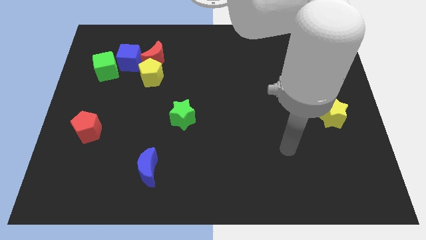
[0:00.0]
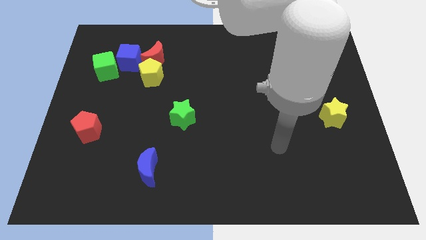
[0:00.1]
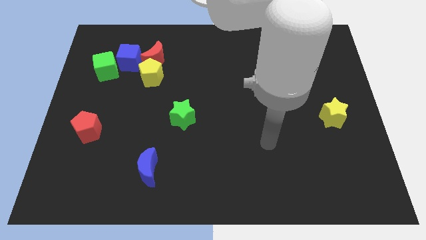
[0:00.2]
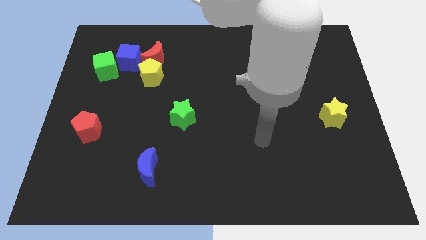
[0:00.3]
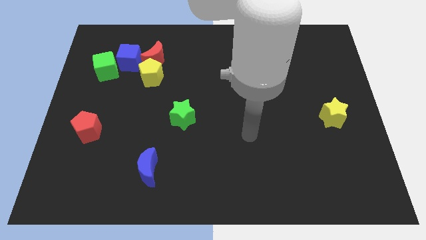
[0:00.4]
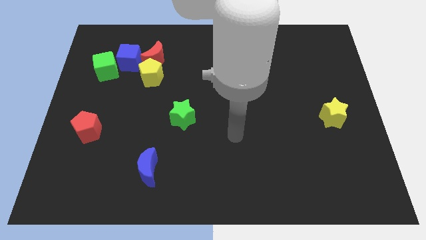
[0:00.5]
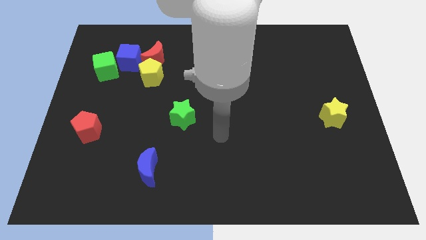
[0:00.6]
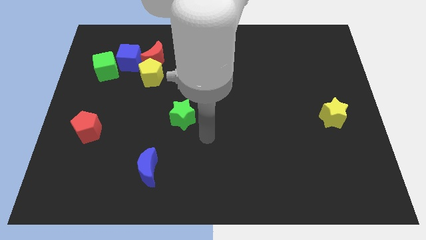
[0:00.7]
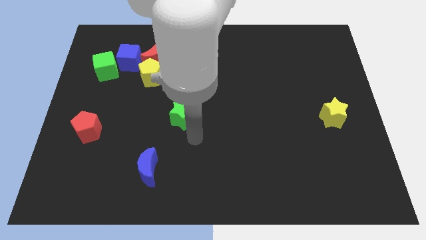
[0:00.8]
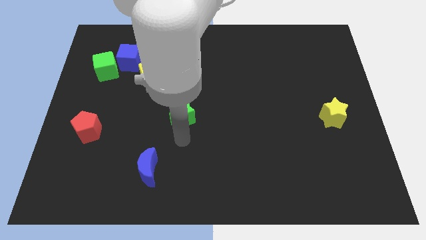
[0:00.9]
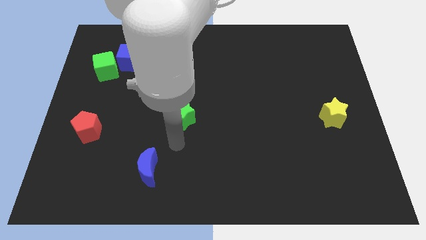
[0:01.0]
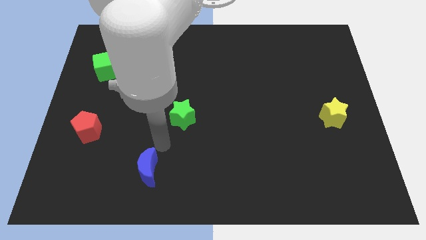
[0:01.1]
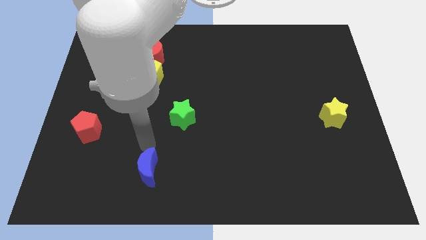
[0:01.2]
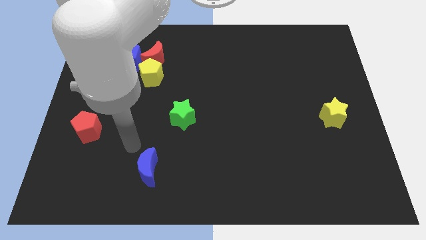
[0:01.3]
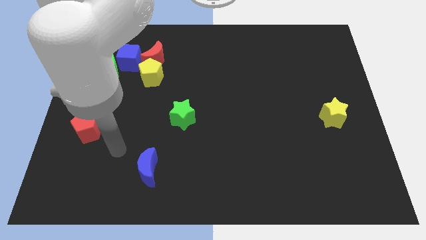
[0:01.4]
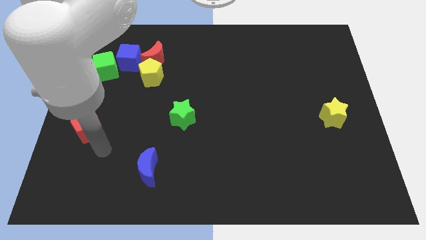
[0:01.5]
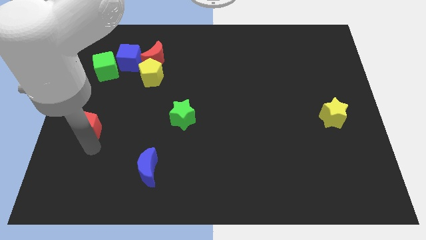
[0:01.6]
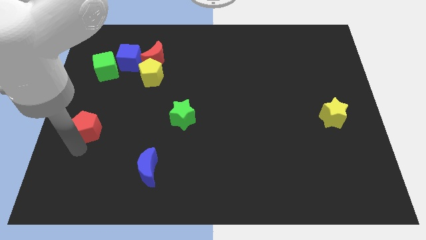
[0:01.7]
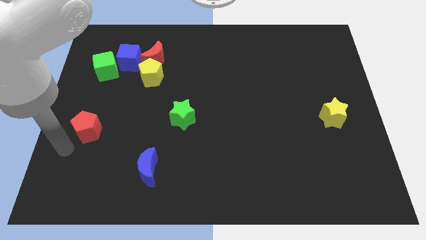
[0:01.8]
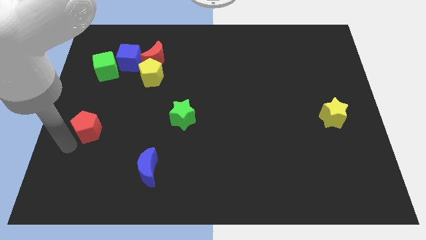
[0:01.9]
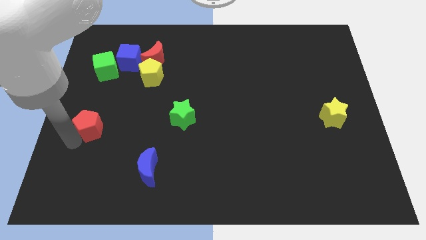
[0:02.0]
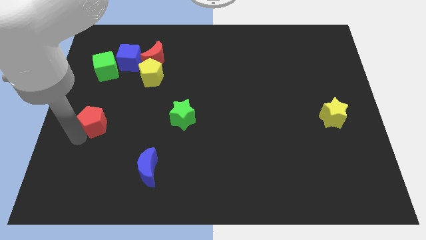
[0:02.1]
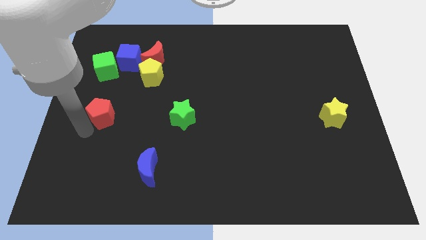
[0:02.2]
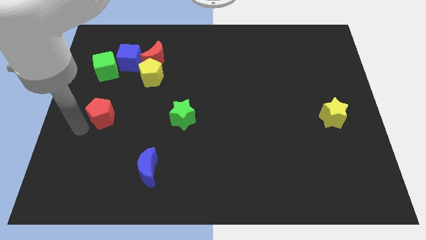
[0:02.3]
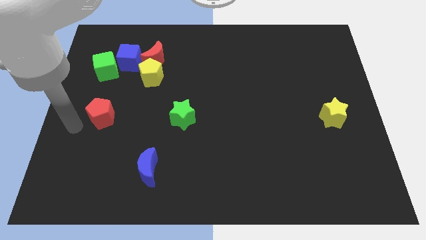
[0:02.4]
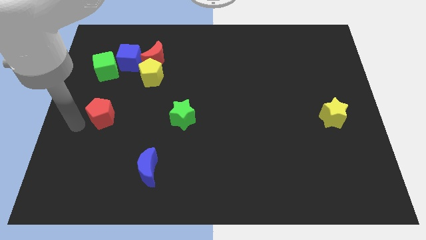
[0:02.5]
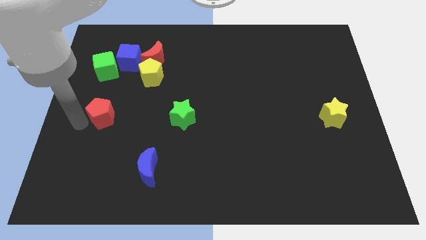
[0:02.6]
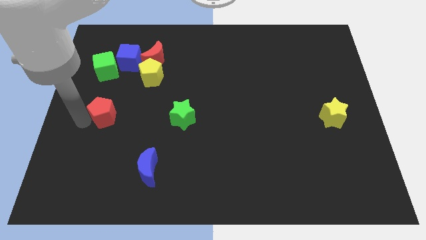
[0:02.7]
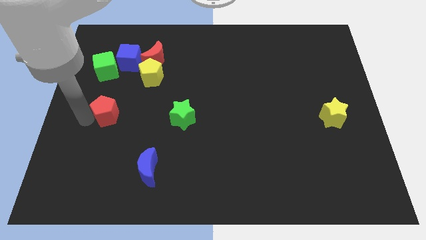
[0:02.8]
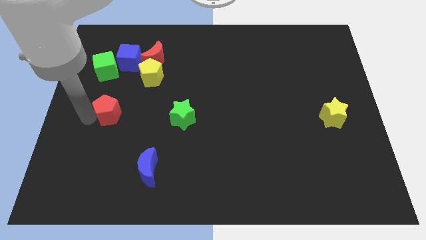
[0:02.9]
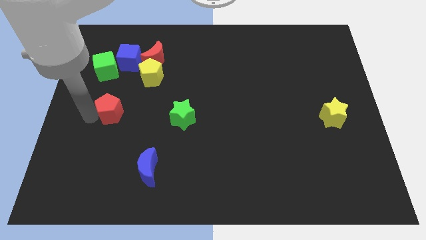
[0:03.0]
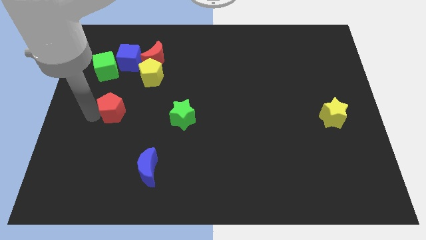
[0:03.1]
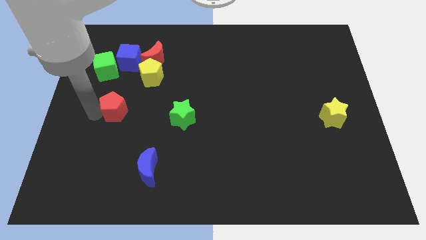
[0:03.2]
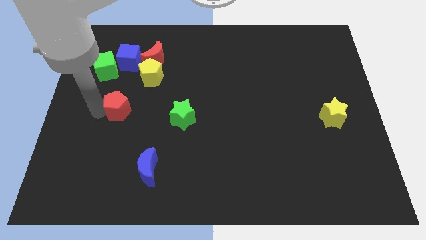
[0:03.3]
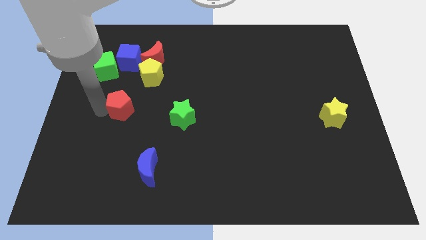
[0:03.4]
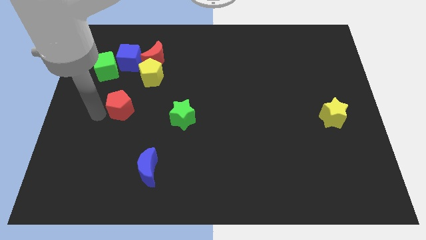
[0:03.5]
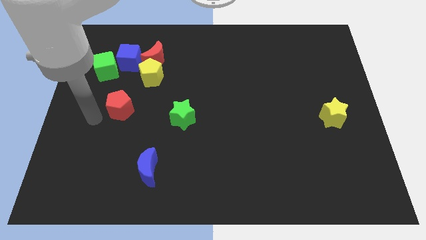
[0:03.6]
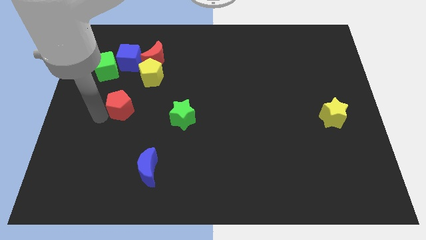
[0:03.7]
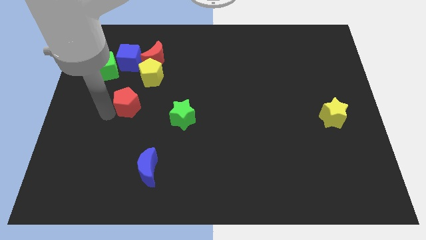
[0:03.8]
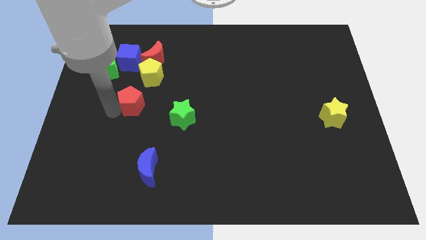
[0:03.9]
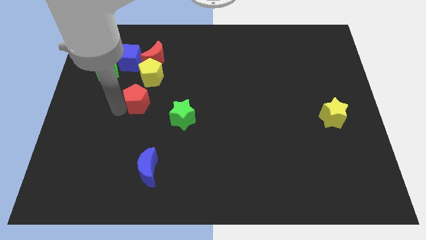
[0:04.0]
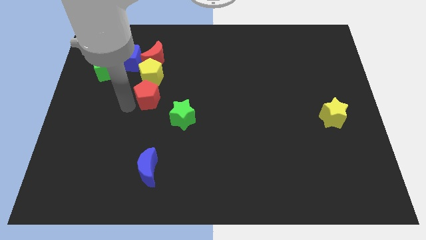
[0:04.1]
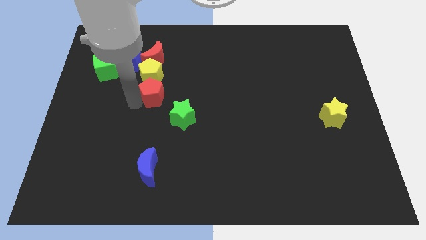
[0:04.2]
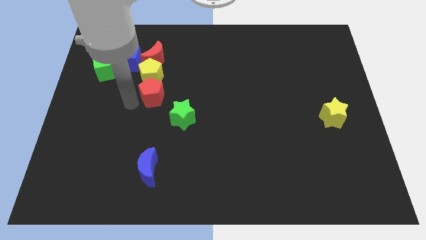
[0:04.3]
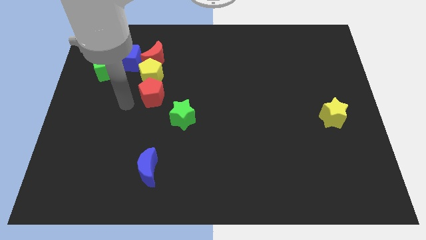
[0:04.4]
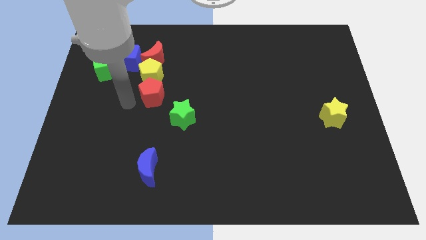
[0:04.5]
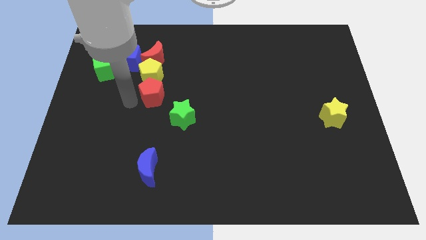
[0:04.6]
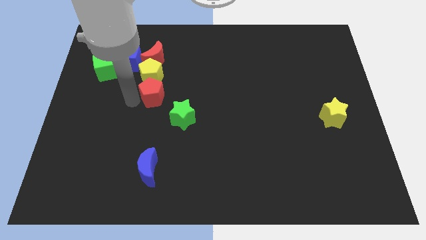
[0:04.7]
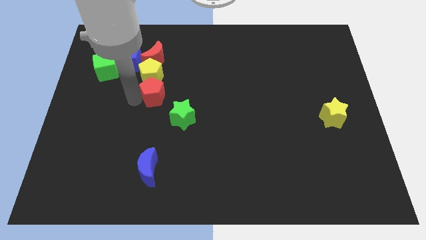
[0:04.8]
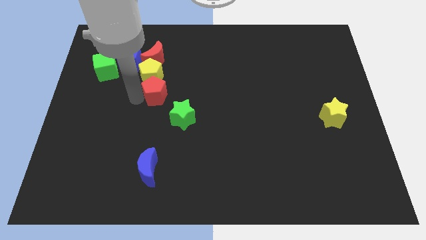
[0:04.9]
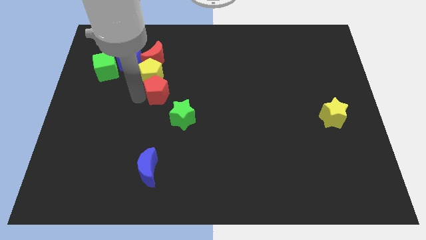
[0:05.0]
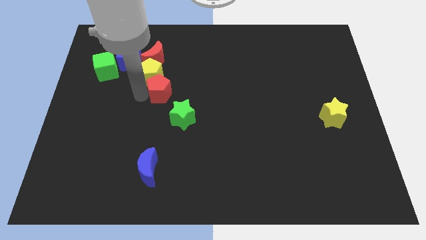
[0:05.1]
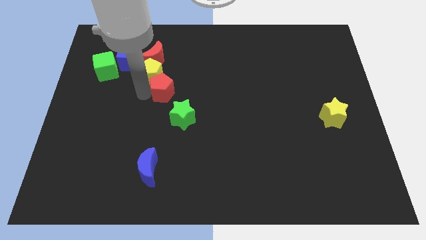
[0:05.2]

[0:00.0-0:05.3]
move the red pentagon to the center

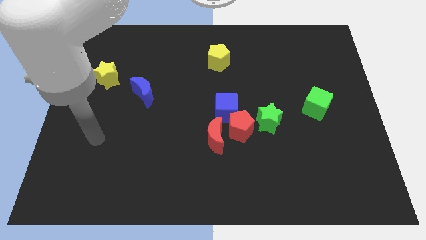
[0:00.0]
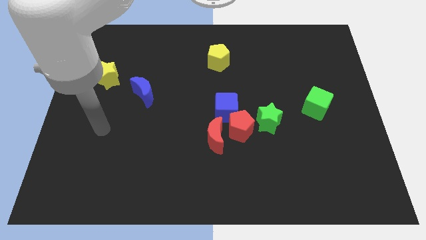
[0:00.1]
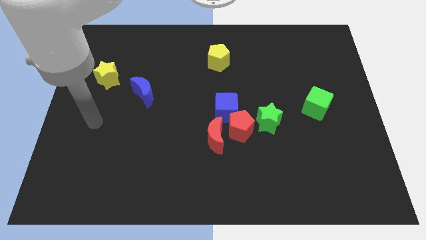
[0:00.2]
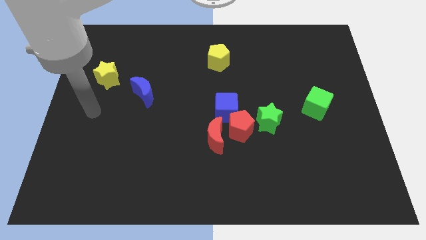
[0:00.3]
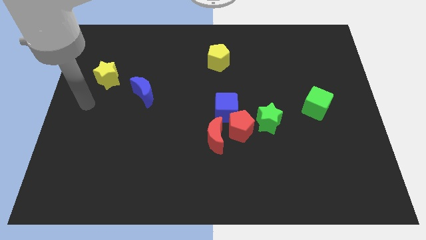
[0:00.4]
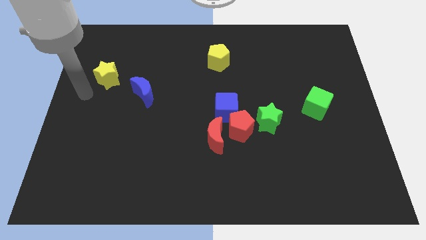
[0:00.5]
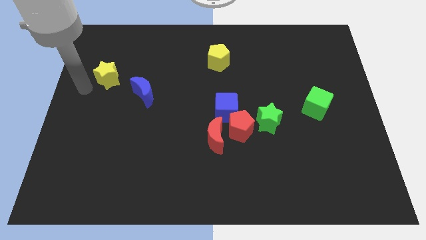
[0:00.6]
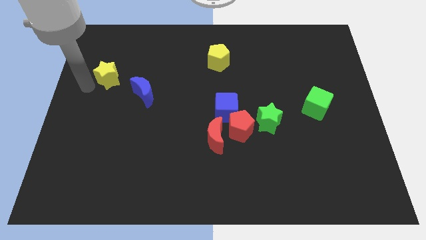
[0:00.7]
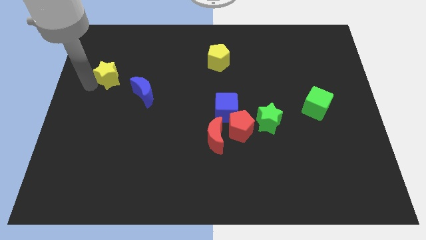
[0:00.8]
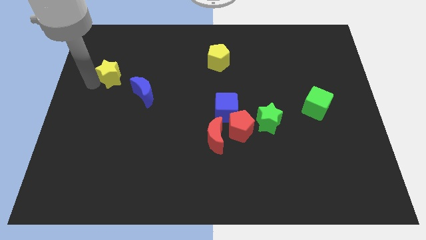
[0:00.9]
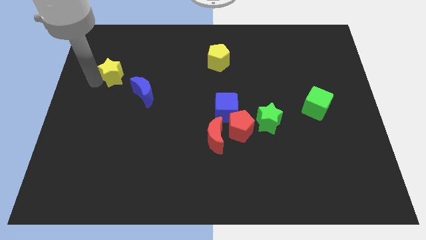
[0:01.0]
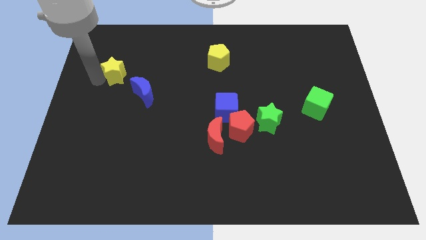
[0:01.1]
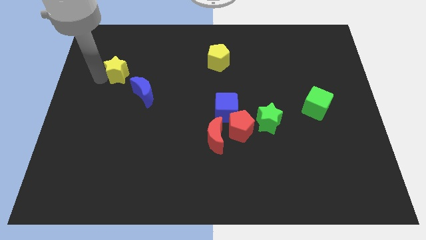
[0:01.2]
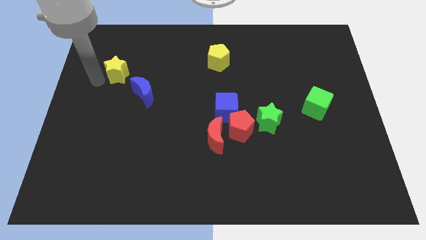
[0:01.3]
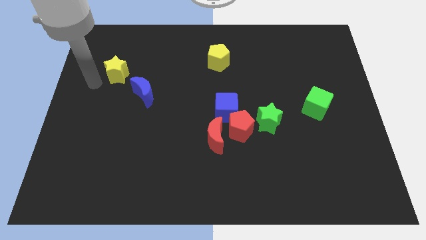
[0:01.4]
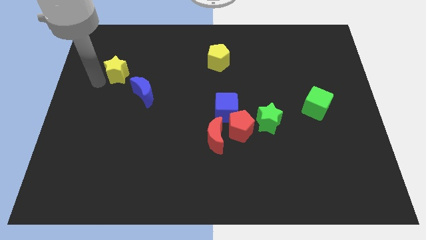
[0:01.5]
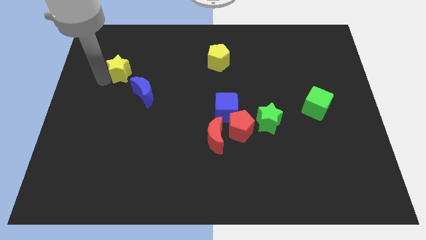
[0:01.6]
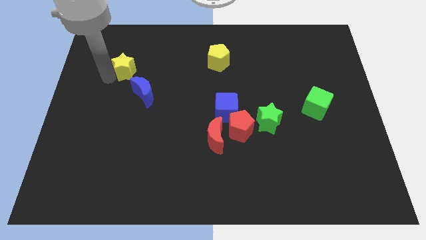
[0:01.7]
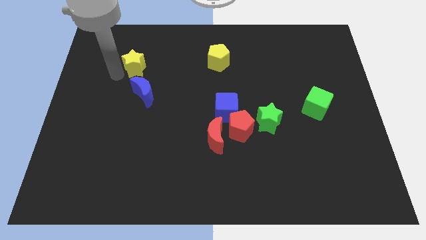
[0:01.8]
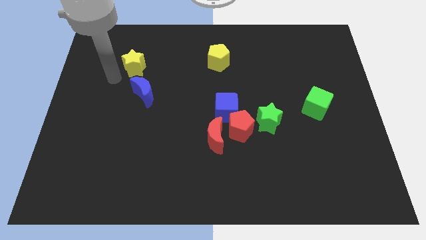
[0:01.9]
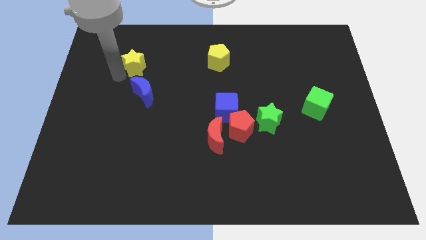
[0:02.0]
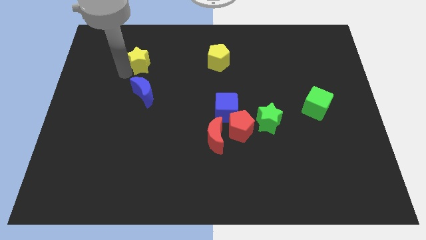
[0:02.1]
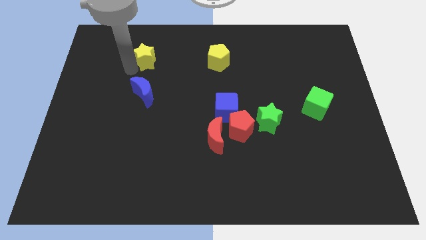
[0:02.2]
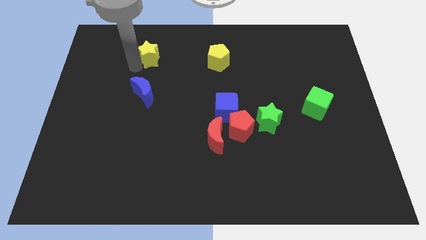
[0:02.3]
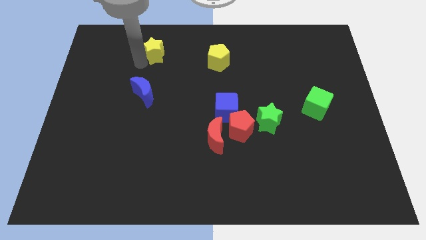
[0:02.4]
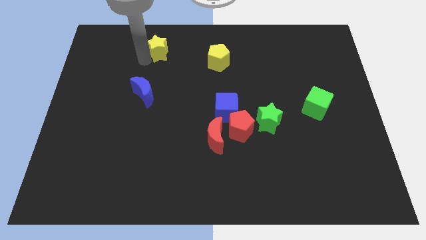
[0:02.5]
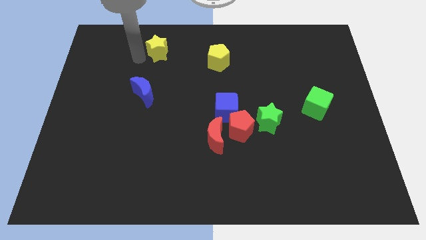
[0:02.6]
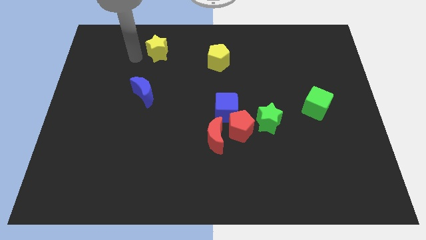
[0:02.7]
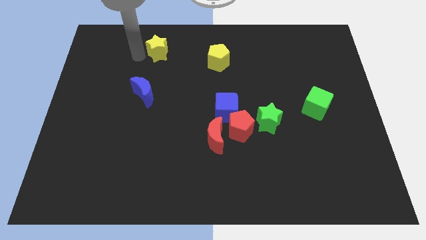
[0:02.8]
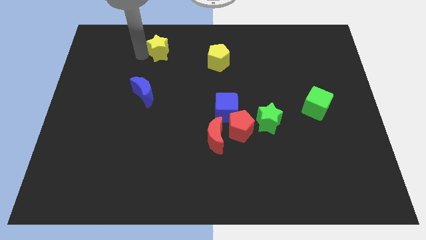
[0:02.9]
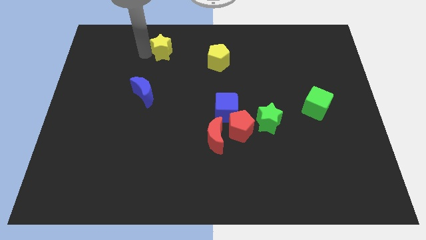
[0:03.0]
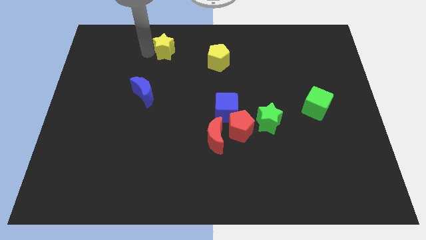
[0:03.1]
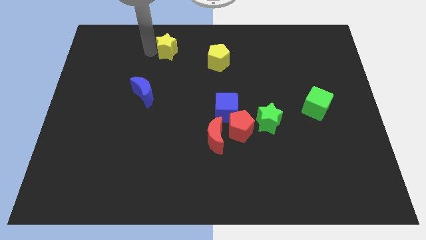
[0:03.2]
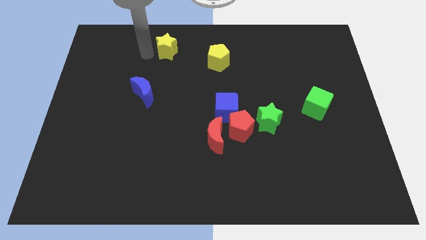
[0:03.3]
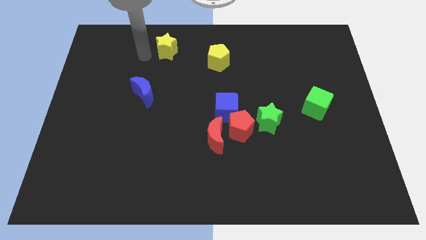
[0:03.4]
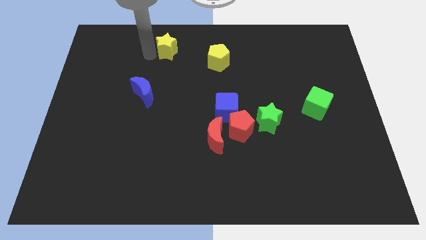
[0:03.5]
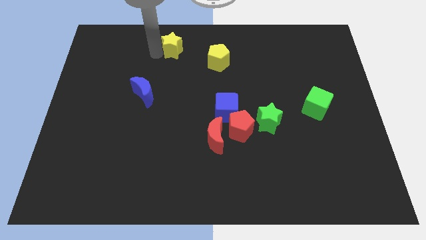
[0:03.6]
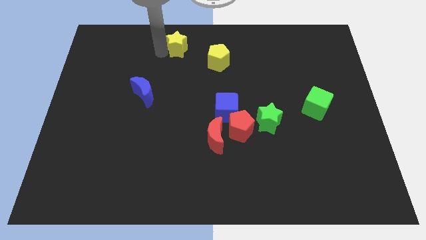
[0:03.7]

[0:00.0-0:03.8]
slide the yellow star to the top side
